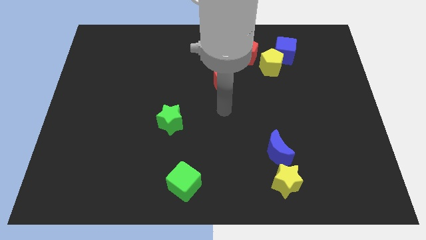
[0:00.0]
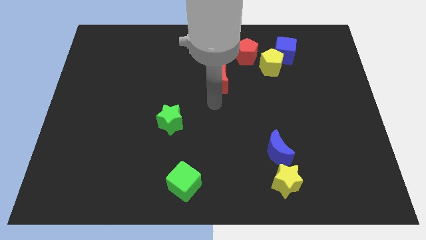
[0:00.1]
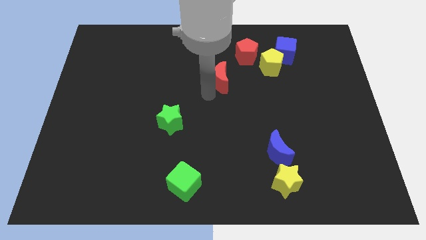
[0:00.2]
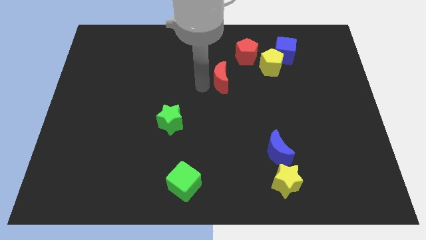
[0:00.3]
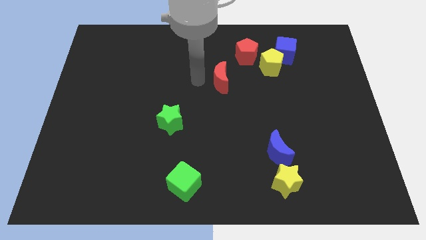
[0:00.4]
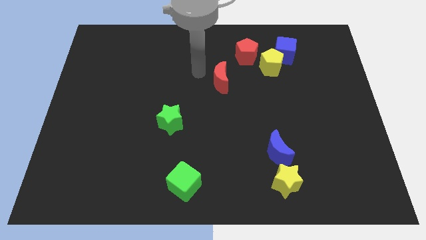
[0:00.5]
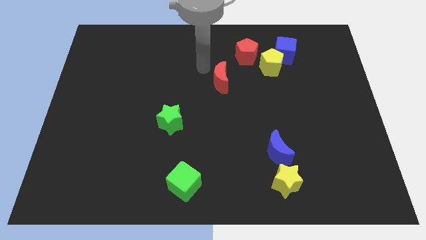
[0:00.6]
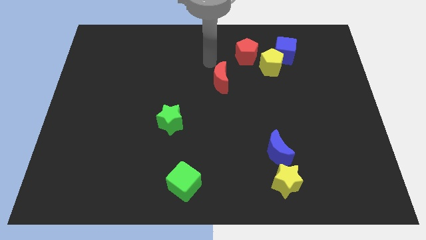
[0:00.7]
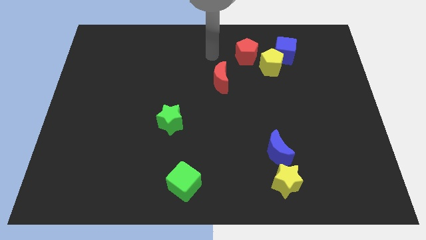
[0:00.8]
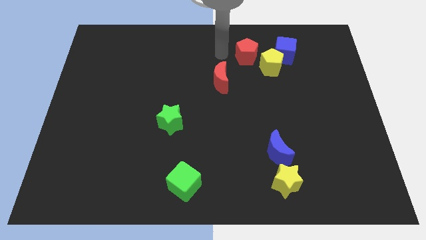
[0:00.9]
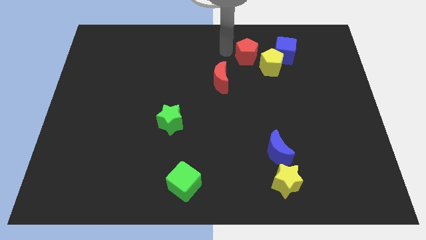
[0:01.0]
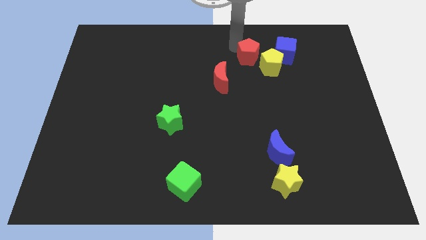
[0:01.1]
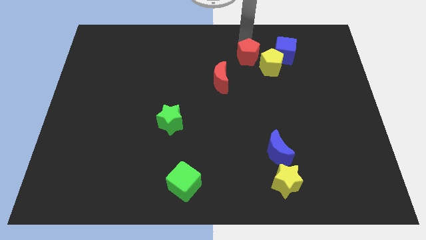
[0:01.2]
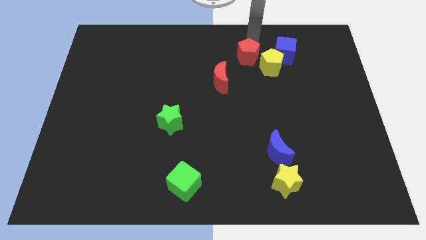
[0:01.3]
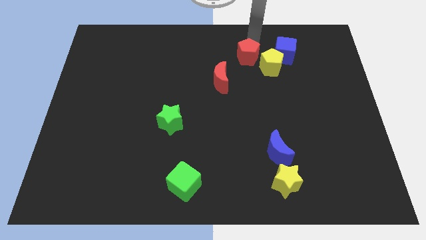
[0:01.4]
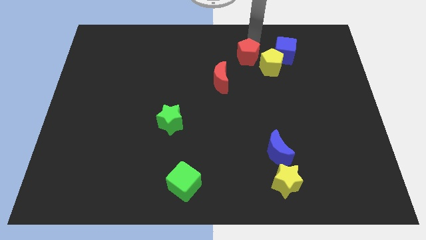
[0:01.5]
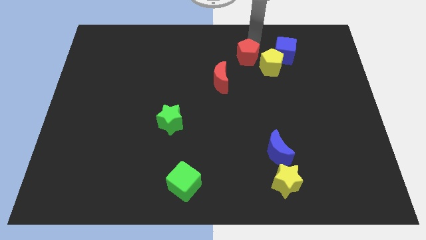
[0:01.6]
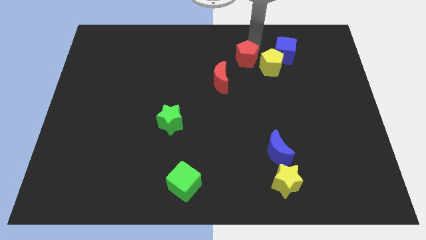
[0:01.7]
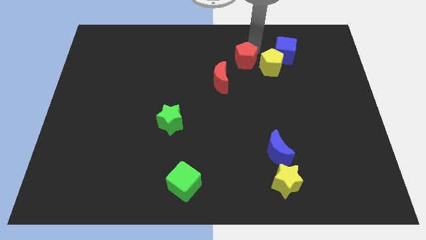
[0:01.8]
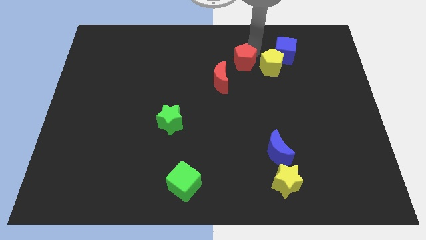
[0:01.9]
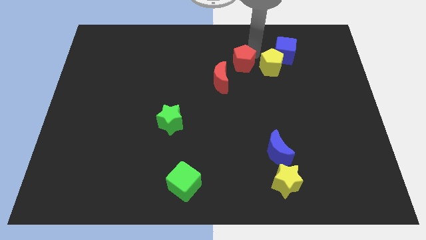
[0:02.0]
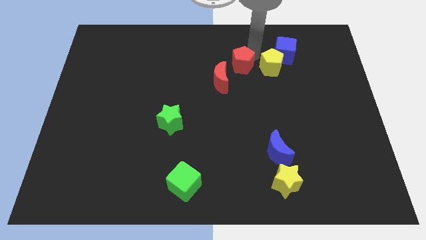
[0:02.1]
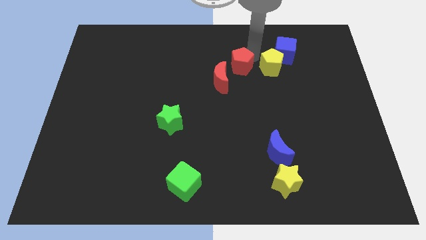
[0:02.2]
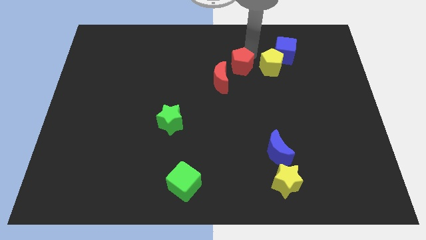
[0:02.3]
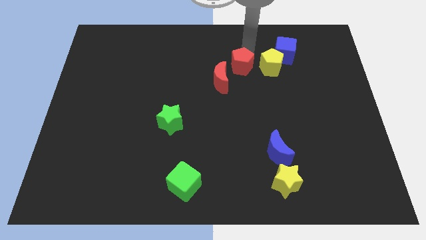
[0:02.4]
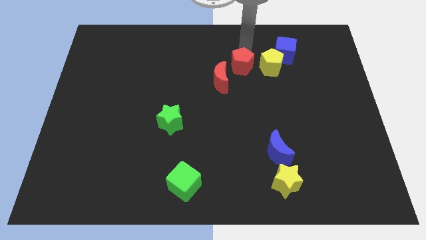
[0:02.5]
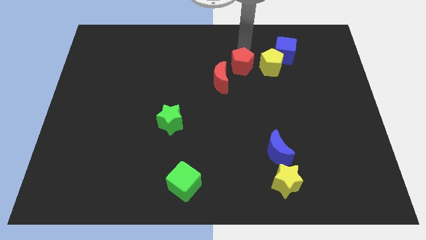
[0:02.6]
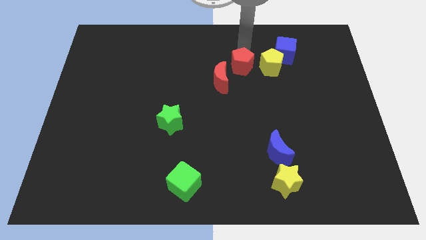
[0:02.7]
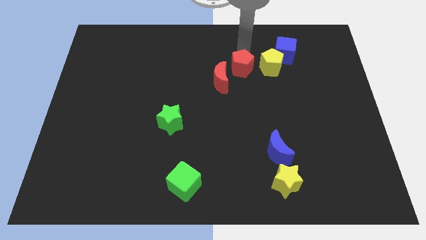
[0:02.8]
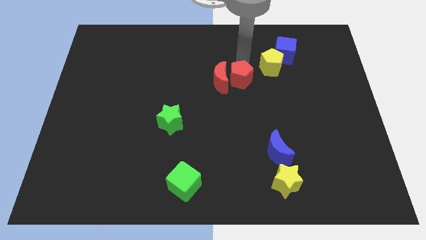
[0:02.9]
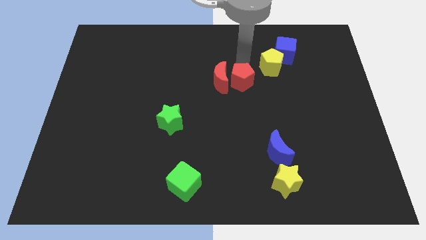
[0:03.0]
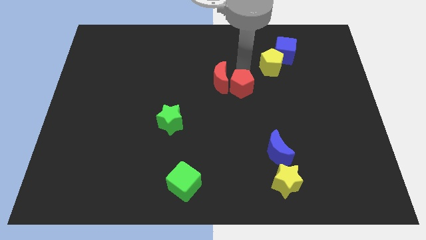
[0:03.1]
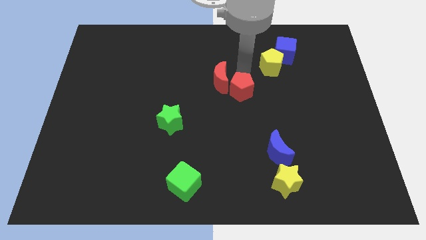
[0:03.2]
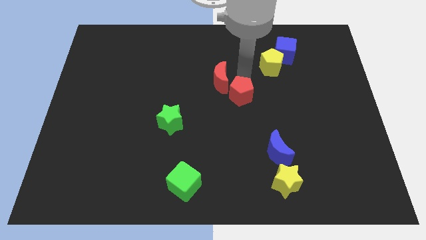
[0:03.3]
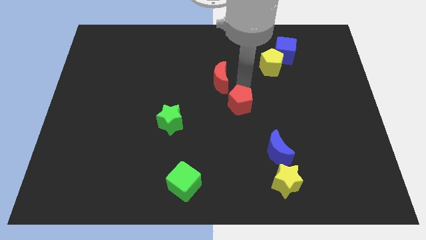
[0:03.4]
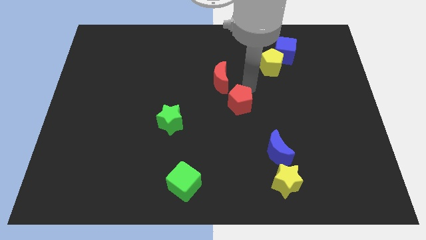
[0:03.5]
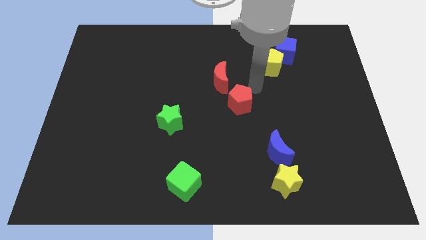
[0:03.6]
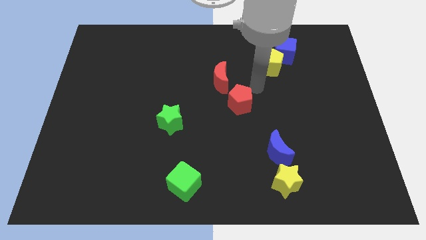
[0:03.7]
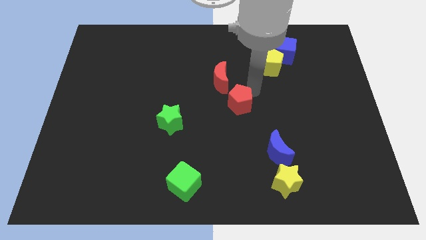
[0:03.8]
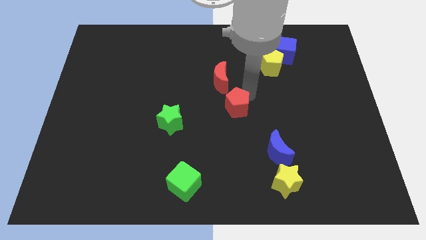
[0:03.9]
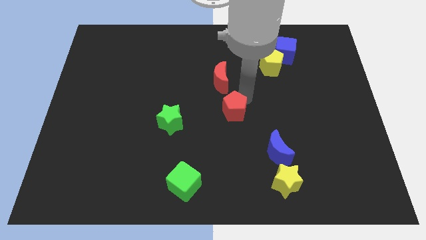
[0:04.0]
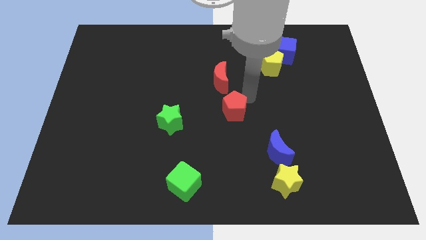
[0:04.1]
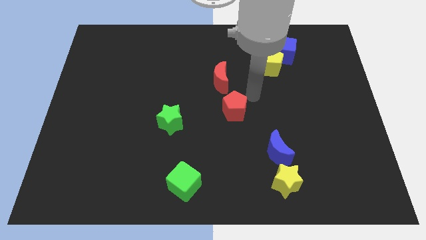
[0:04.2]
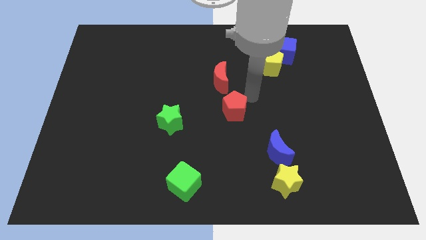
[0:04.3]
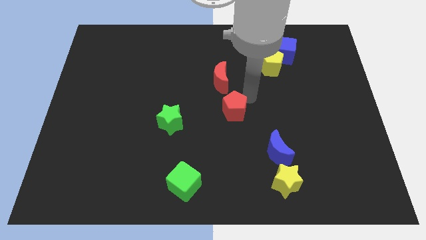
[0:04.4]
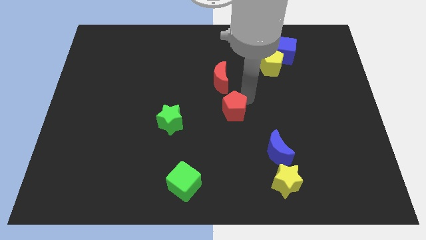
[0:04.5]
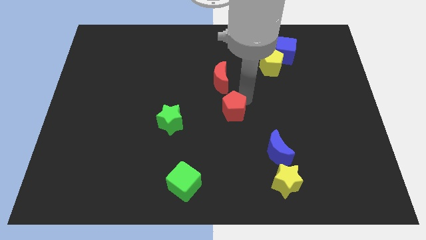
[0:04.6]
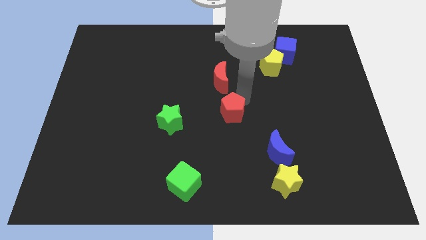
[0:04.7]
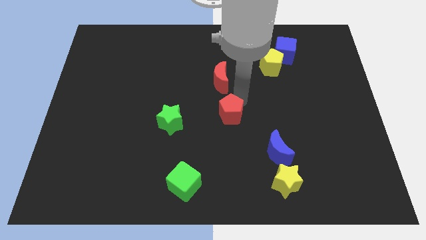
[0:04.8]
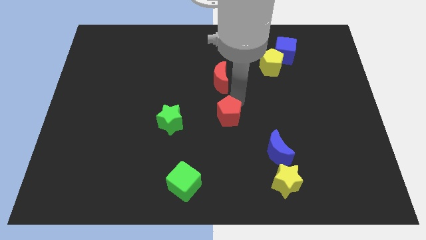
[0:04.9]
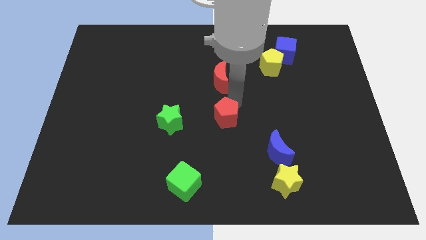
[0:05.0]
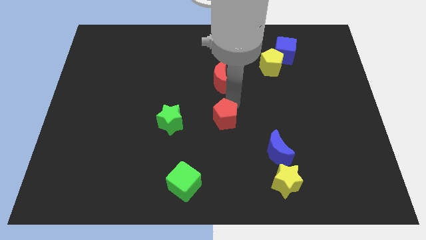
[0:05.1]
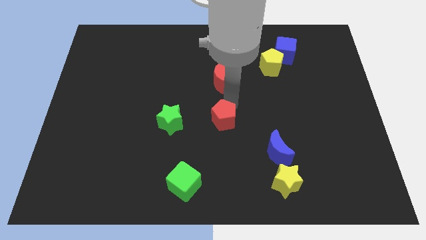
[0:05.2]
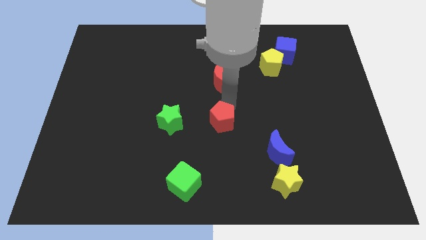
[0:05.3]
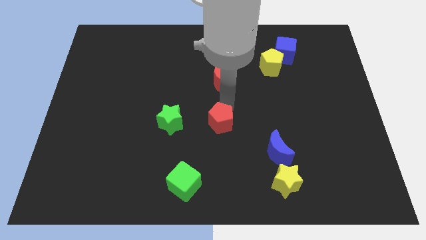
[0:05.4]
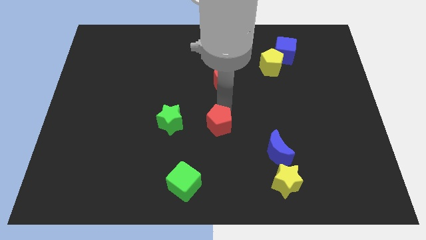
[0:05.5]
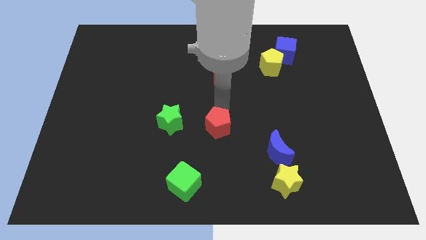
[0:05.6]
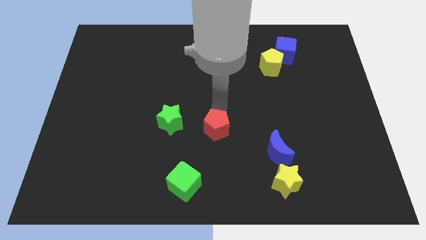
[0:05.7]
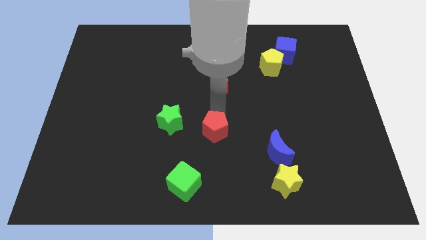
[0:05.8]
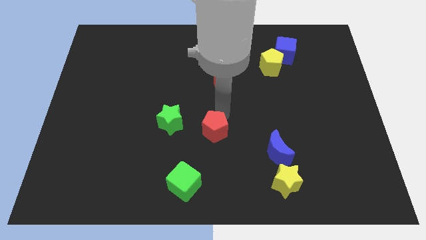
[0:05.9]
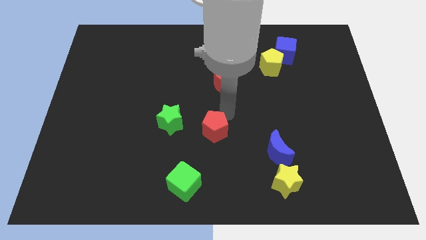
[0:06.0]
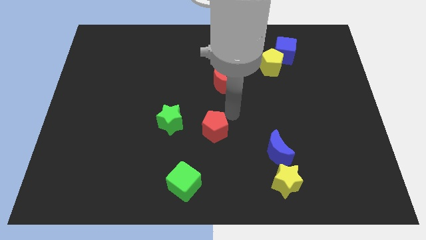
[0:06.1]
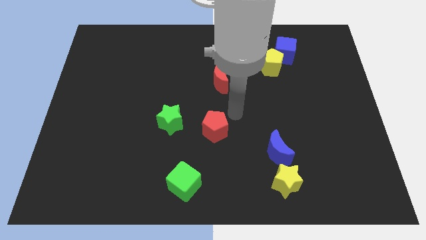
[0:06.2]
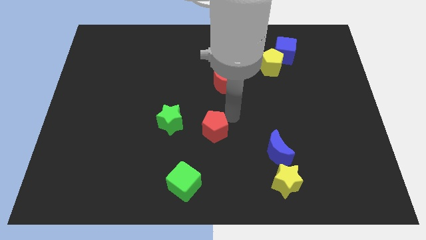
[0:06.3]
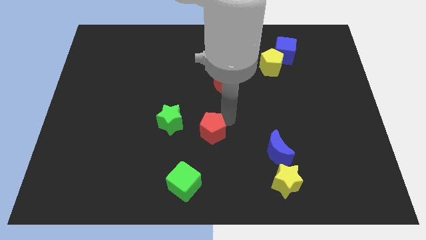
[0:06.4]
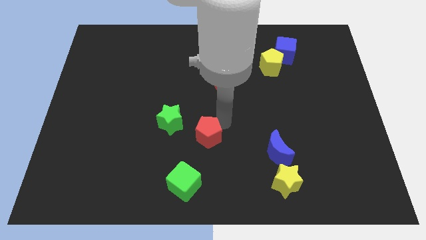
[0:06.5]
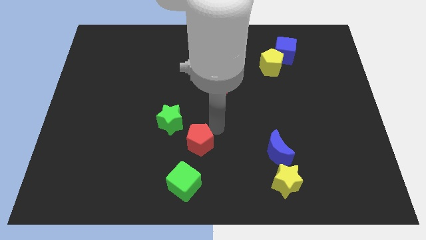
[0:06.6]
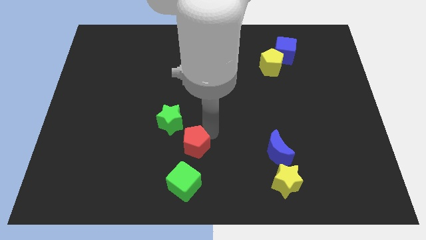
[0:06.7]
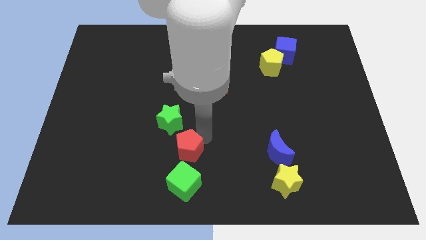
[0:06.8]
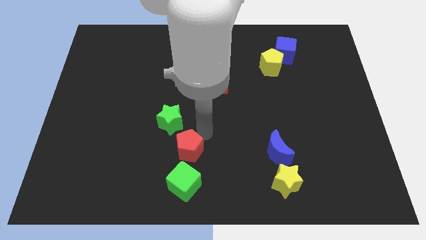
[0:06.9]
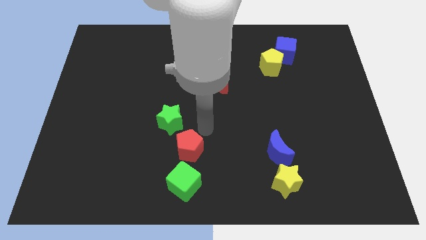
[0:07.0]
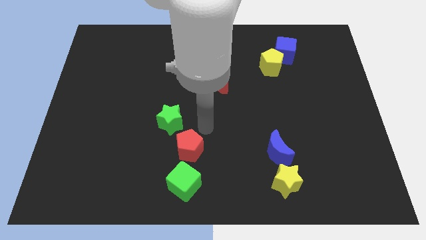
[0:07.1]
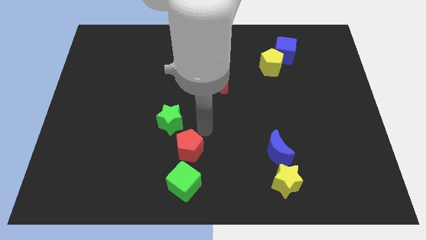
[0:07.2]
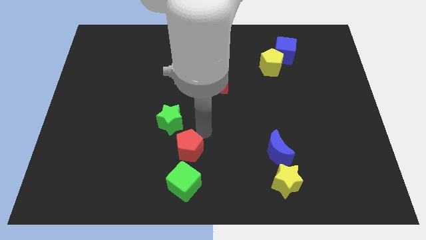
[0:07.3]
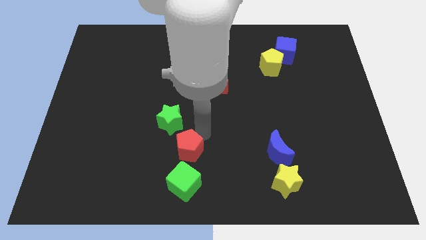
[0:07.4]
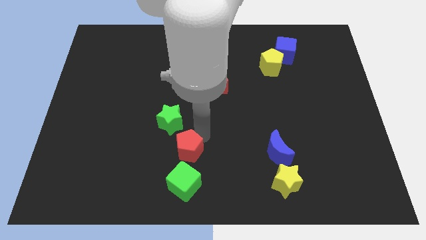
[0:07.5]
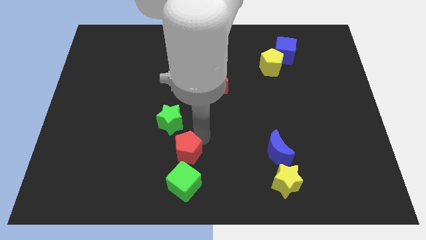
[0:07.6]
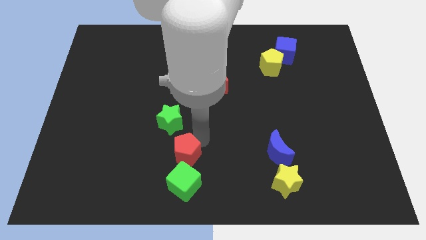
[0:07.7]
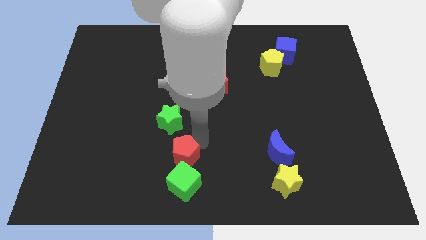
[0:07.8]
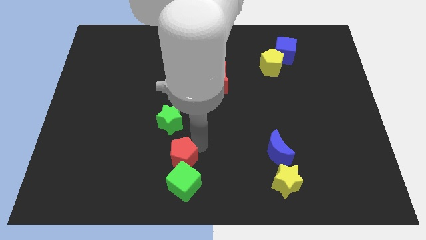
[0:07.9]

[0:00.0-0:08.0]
move the red pentagon next to the green cube
